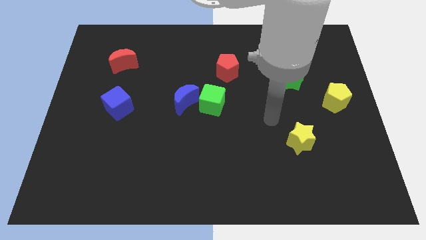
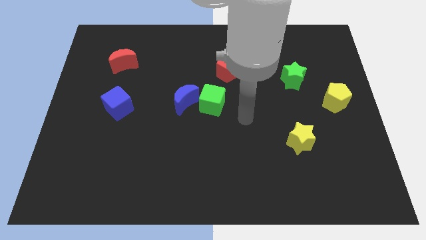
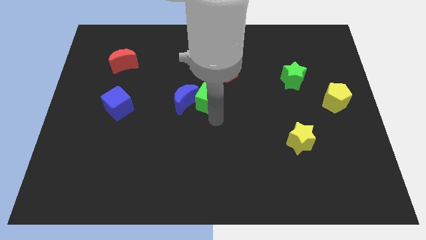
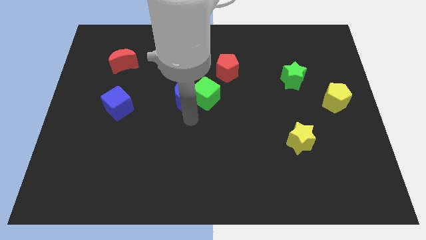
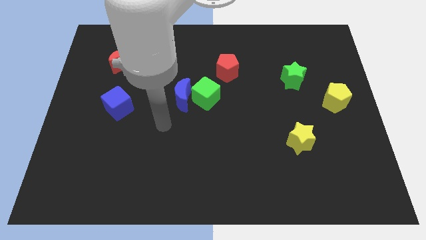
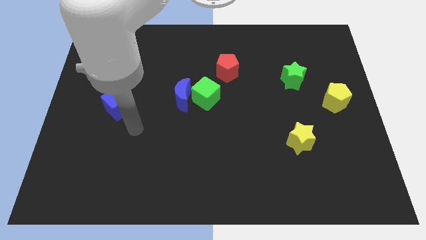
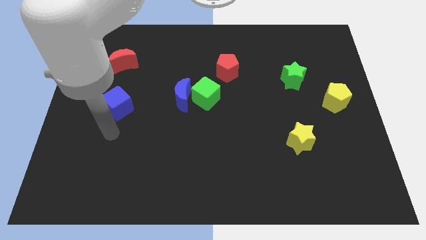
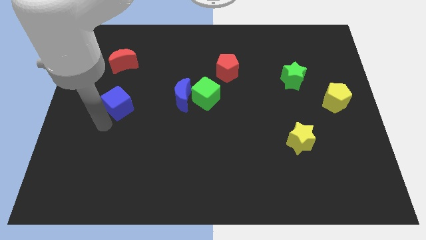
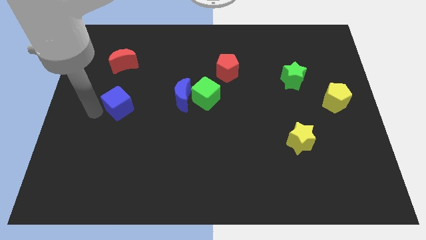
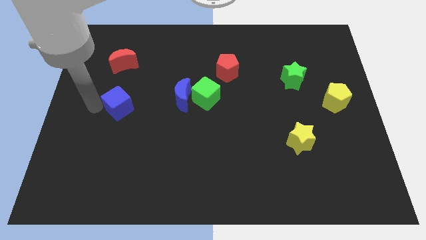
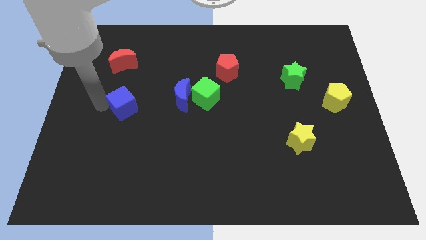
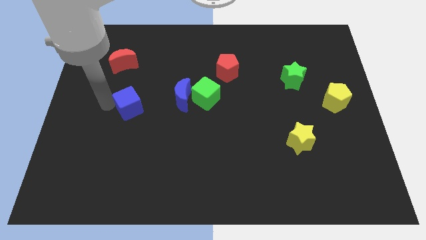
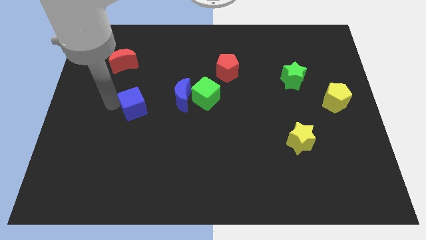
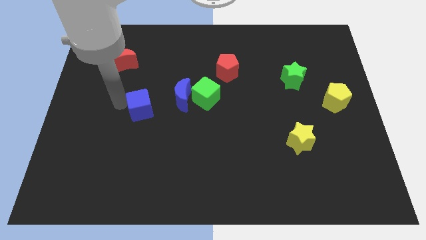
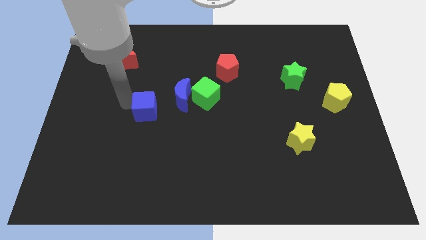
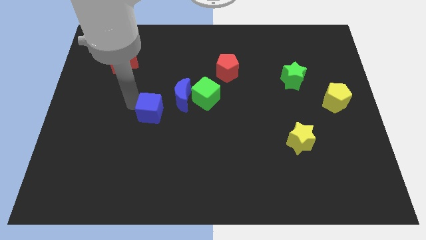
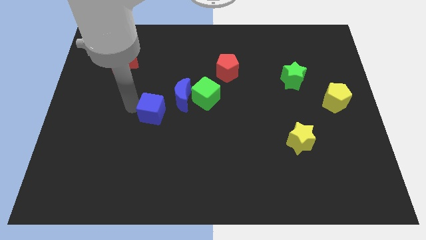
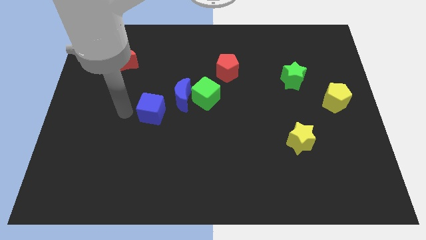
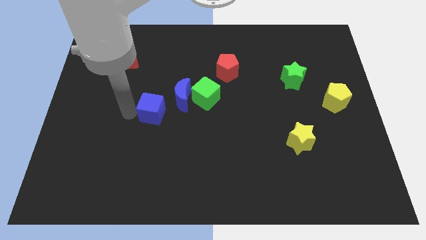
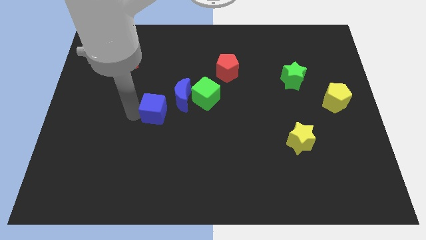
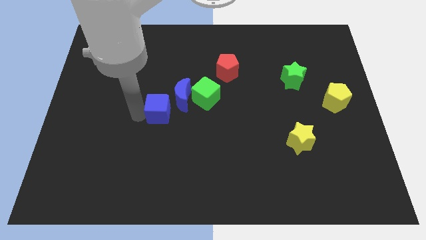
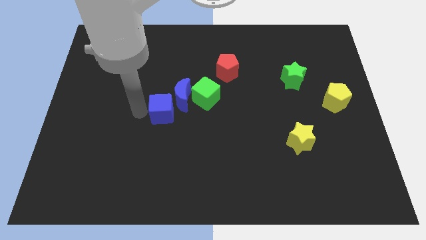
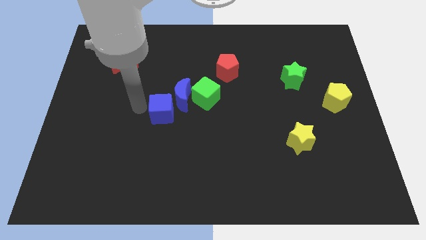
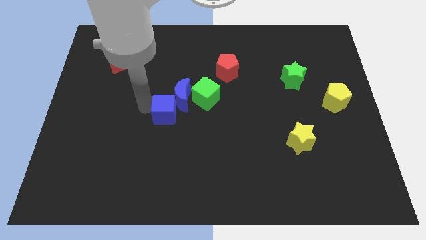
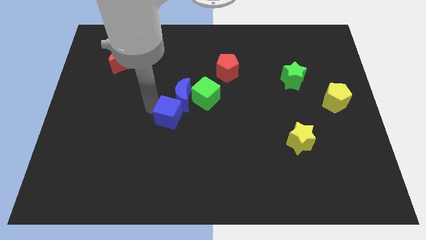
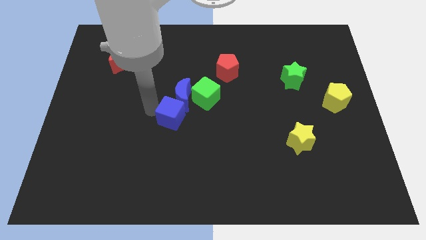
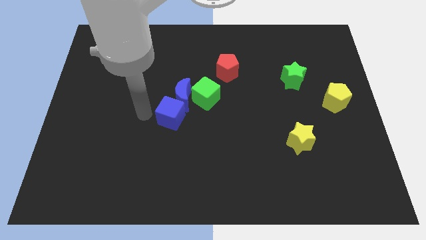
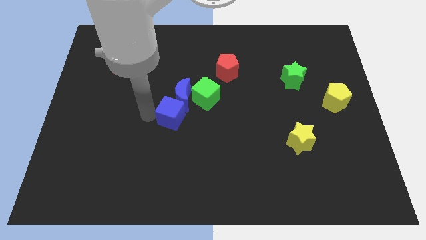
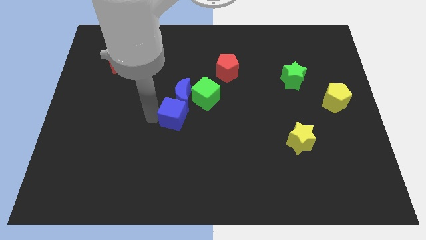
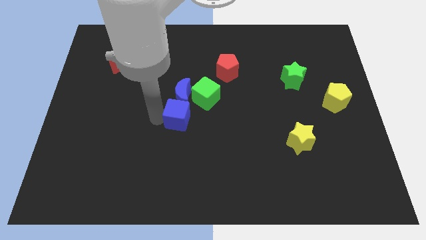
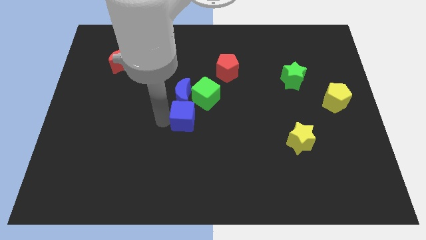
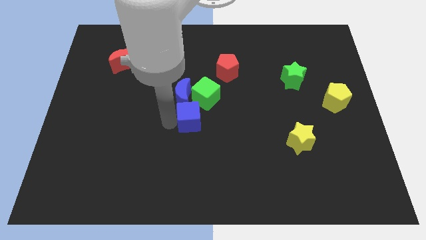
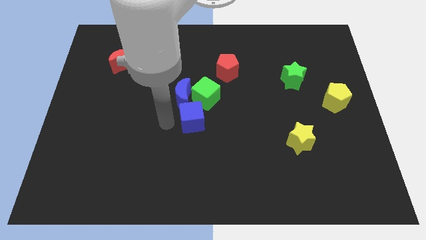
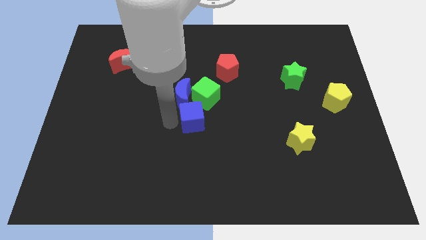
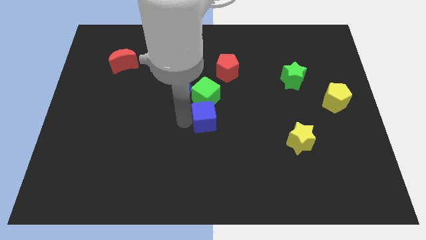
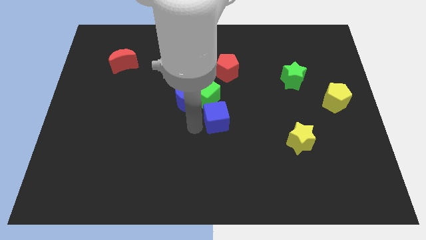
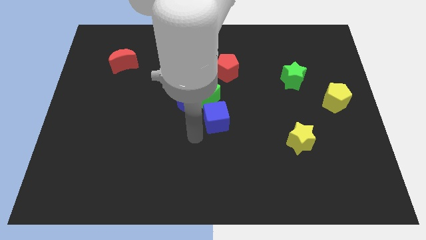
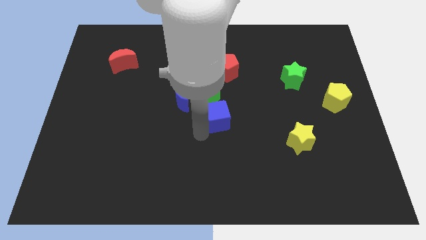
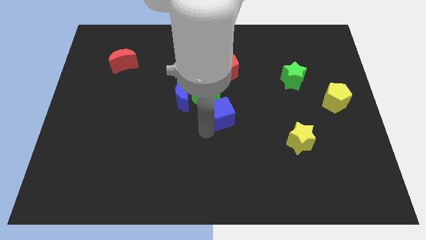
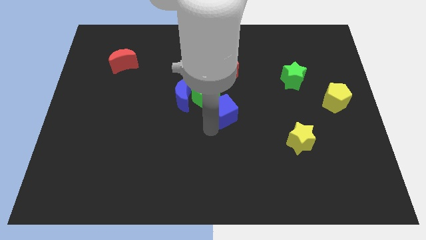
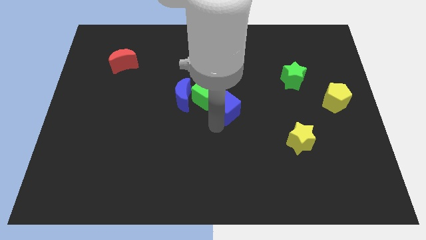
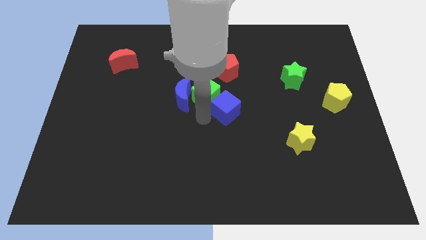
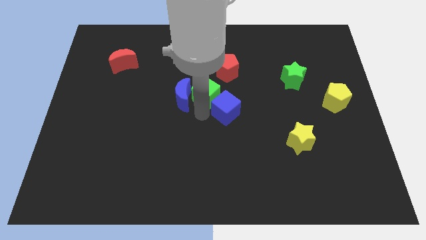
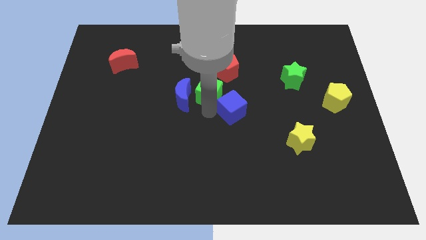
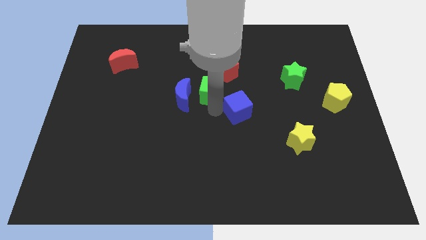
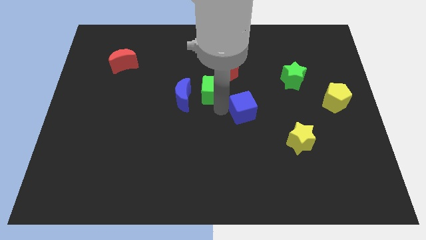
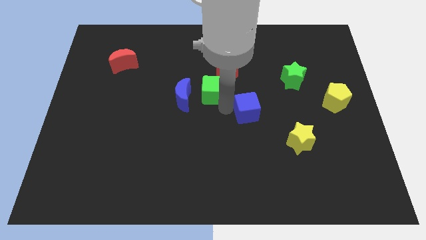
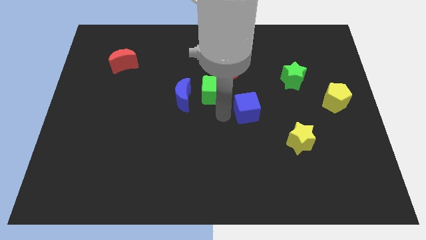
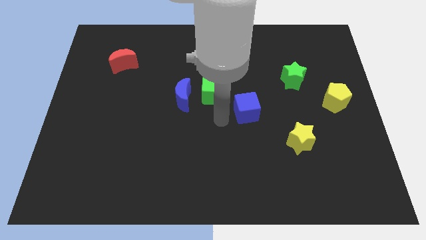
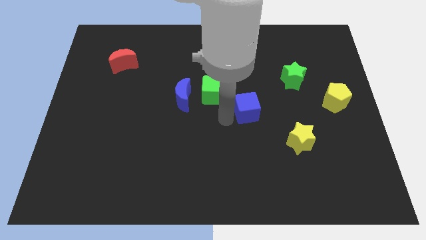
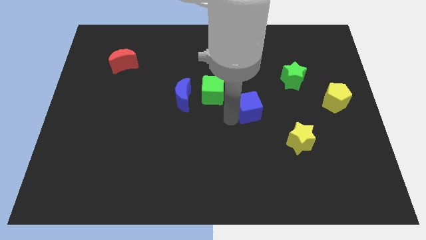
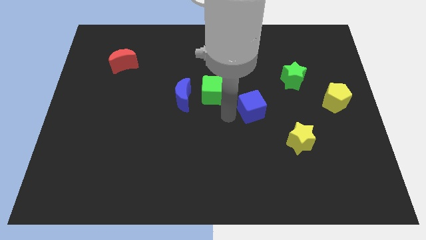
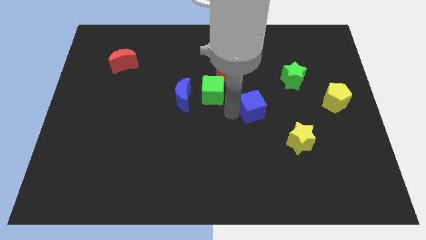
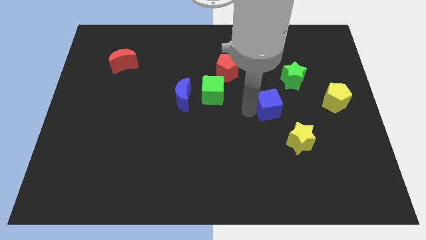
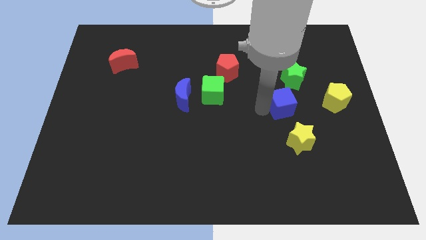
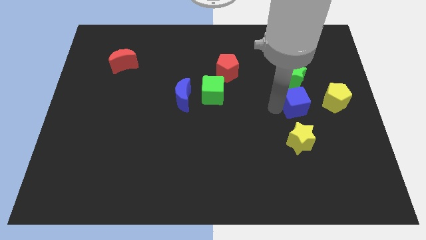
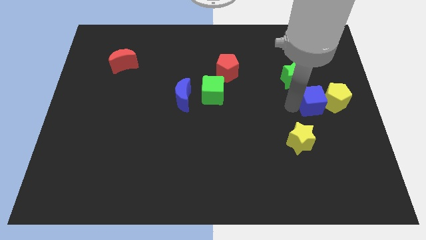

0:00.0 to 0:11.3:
move the blue cube close to the yellow pentagon

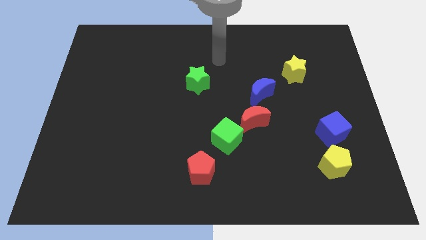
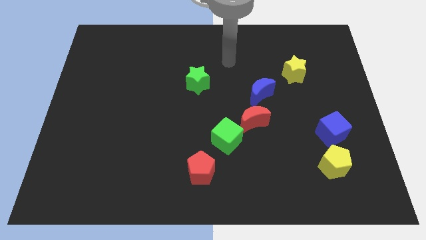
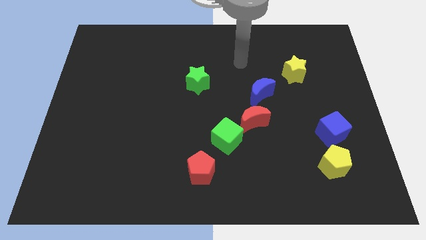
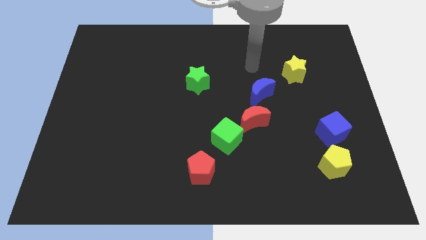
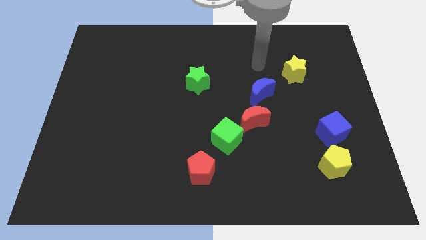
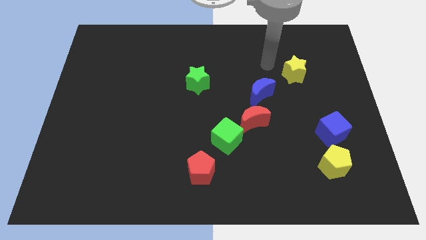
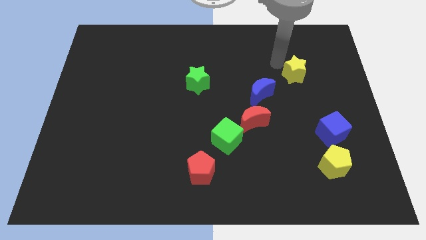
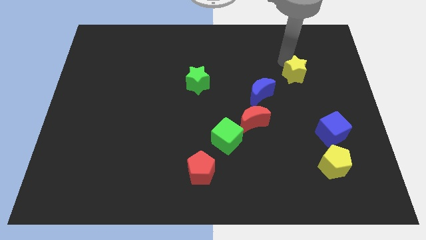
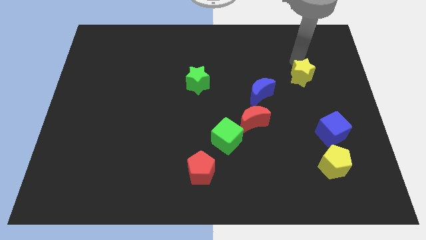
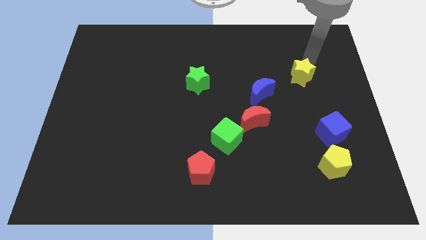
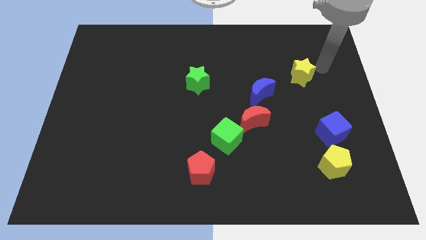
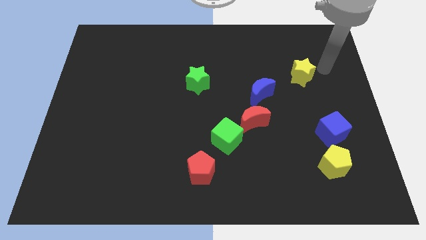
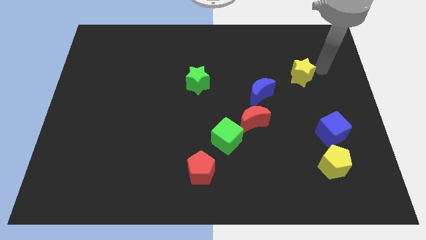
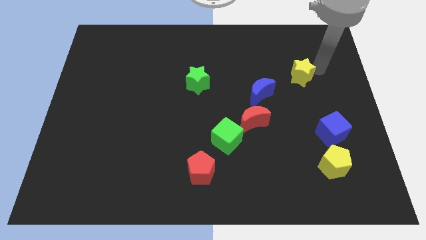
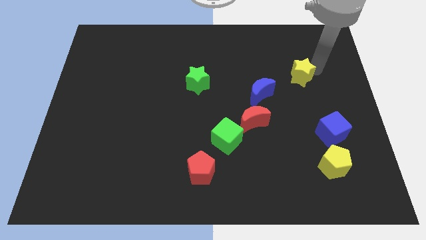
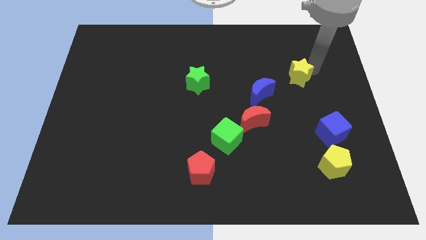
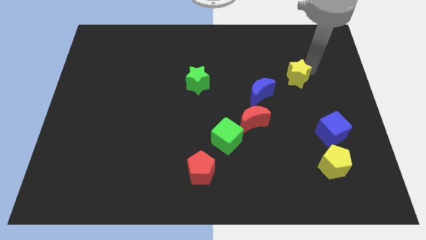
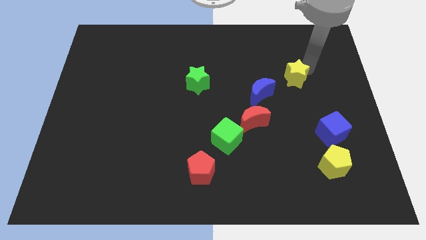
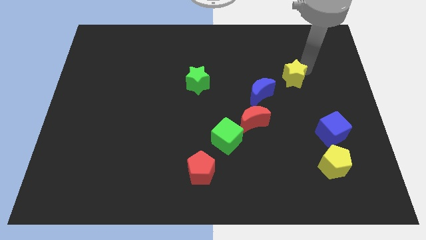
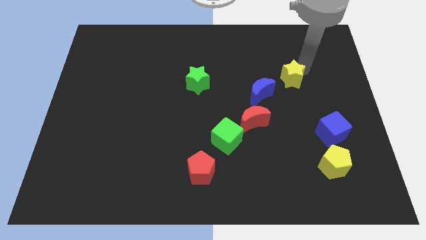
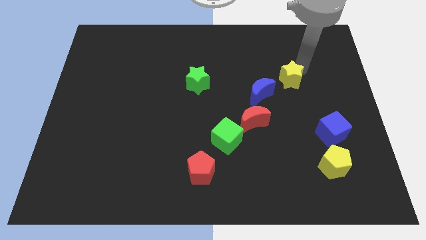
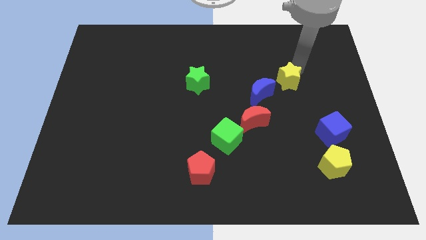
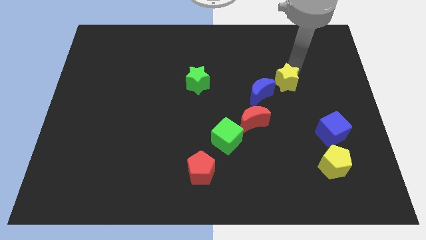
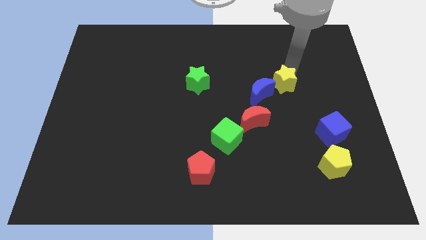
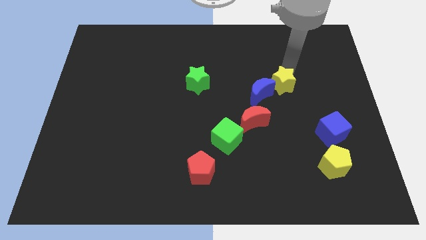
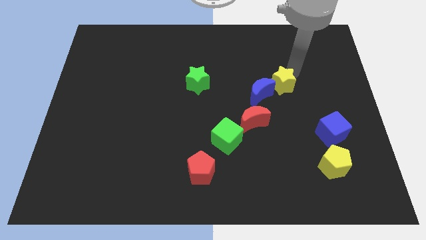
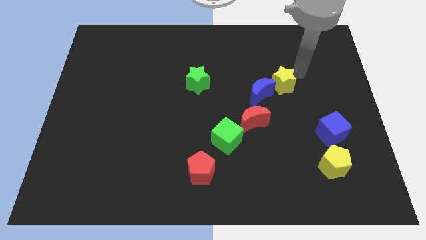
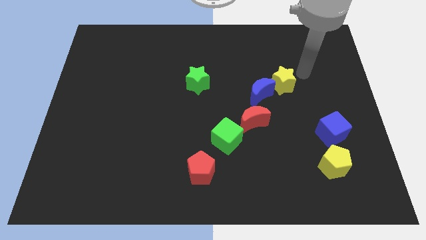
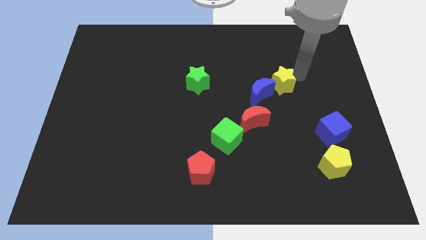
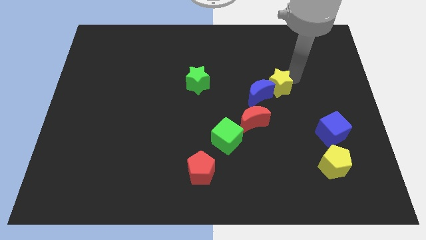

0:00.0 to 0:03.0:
move the yellow star towards the blue moon
